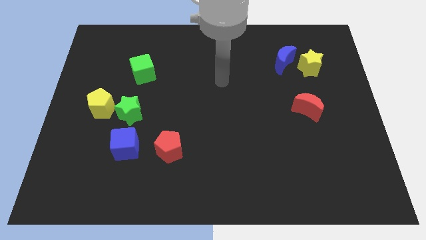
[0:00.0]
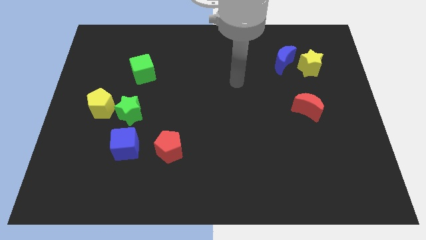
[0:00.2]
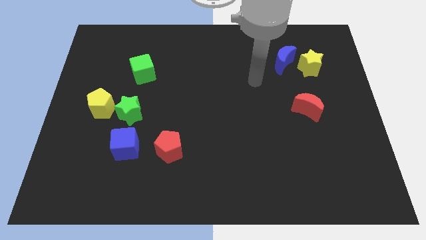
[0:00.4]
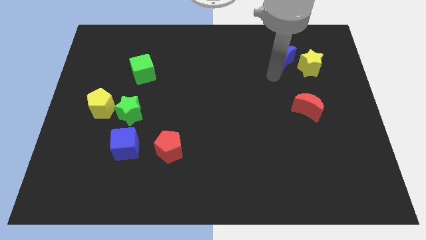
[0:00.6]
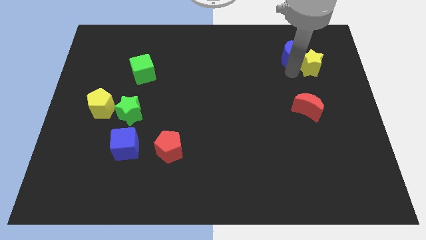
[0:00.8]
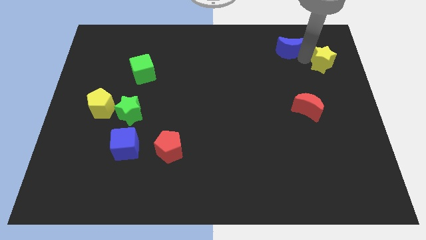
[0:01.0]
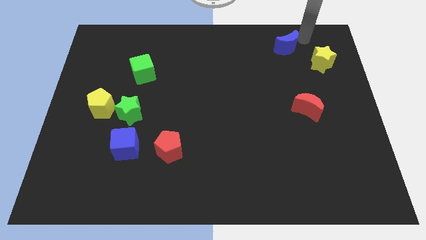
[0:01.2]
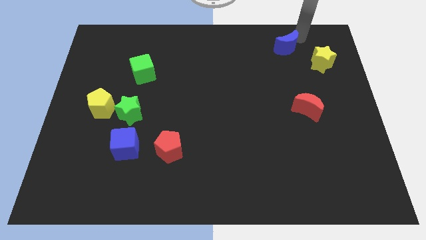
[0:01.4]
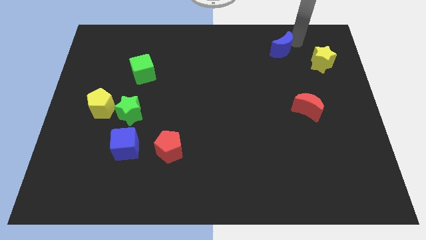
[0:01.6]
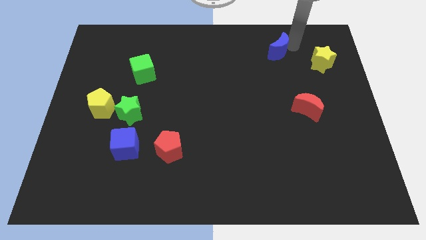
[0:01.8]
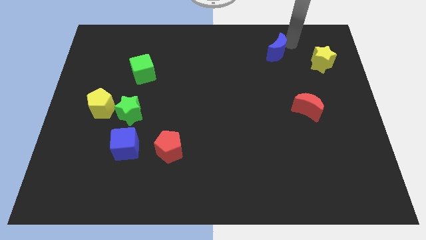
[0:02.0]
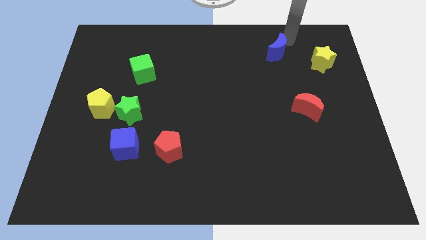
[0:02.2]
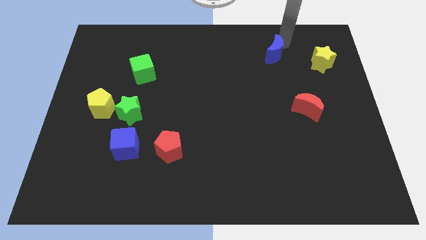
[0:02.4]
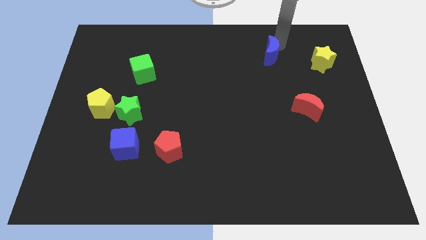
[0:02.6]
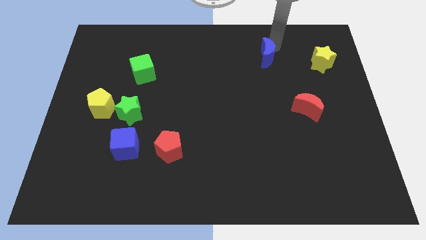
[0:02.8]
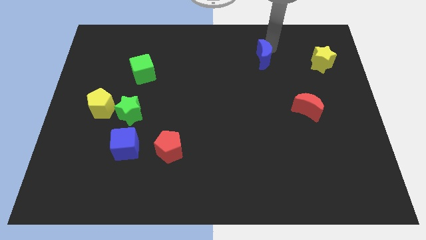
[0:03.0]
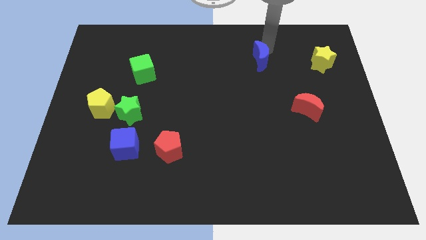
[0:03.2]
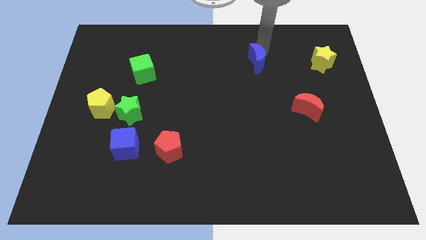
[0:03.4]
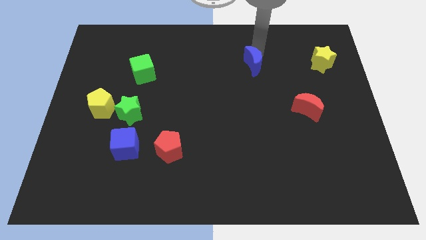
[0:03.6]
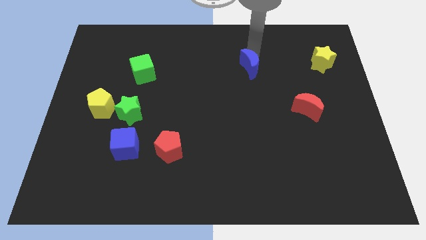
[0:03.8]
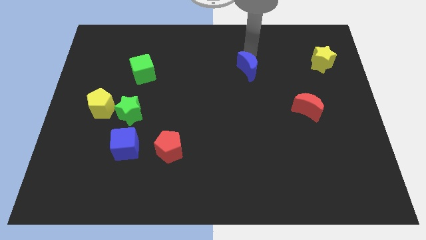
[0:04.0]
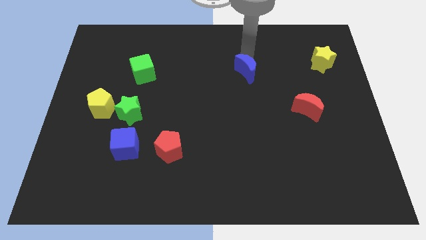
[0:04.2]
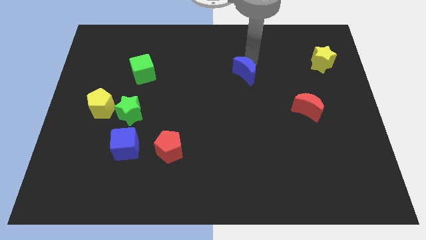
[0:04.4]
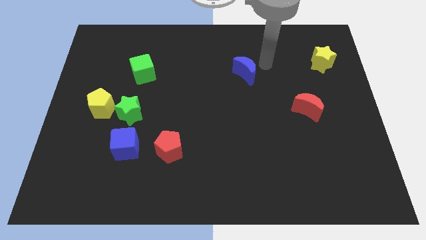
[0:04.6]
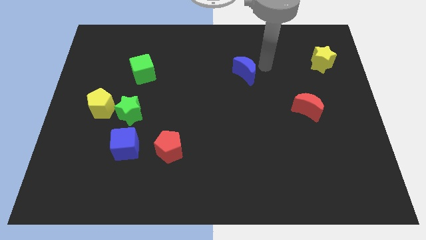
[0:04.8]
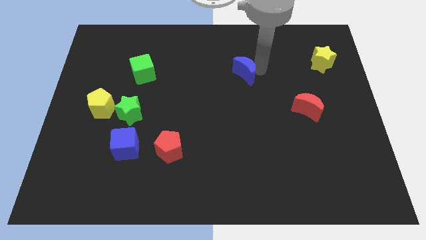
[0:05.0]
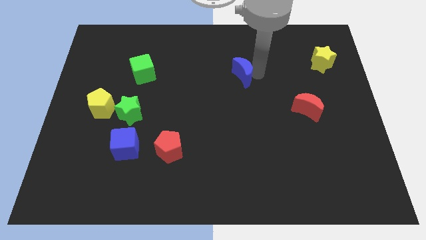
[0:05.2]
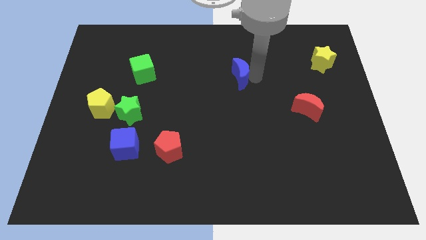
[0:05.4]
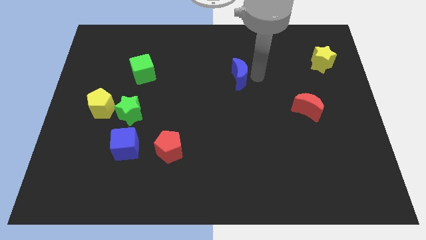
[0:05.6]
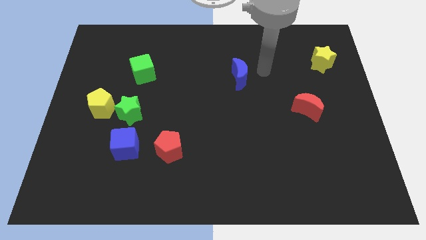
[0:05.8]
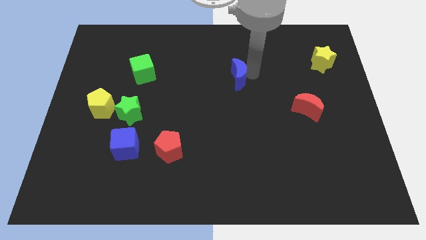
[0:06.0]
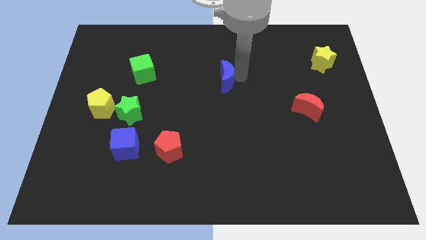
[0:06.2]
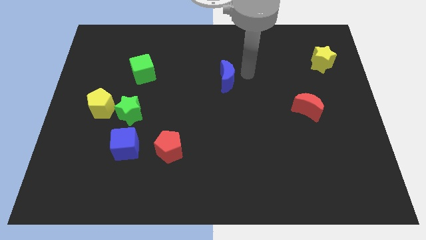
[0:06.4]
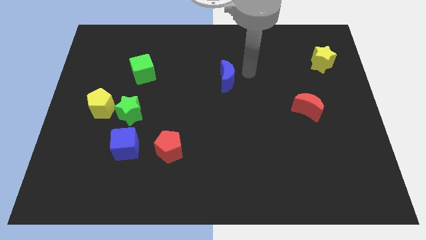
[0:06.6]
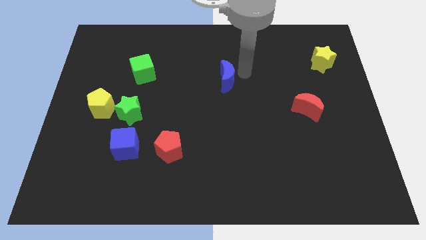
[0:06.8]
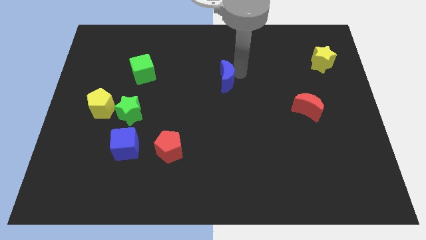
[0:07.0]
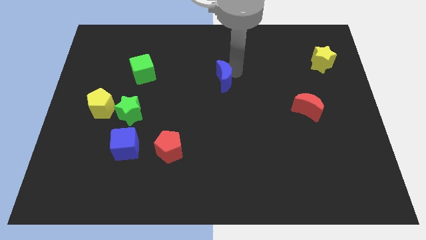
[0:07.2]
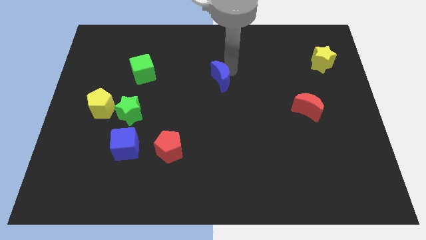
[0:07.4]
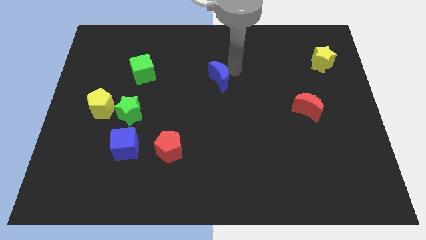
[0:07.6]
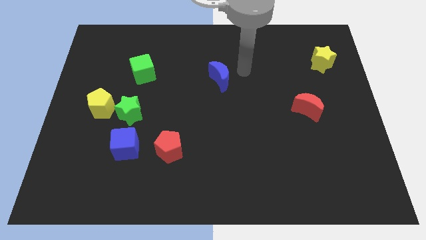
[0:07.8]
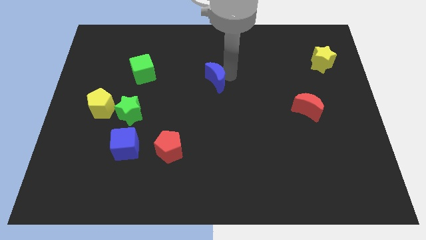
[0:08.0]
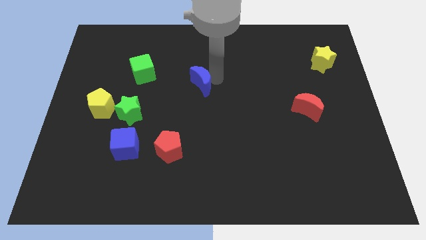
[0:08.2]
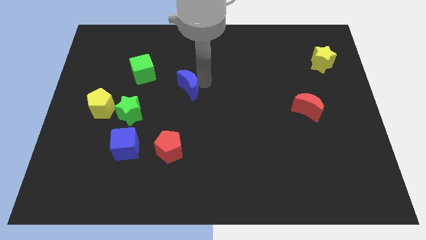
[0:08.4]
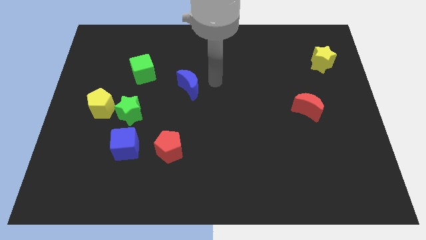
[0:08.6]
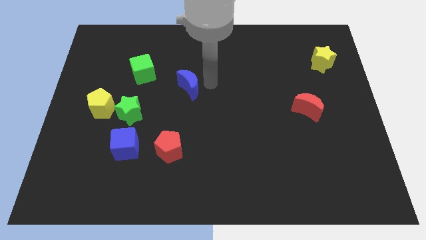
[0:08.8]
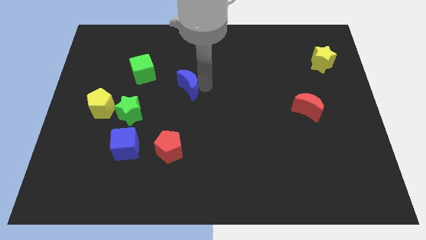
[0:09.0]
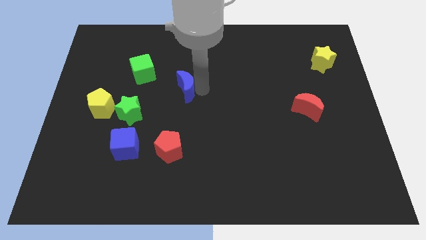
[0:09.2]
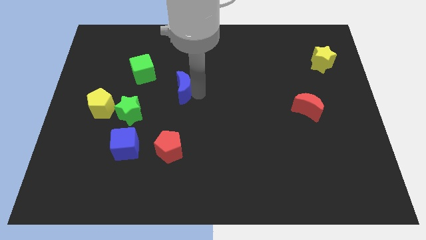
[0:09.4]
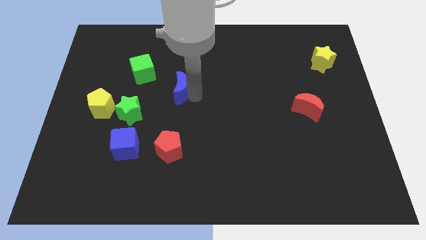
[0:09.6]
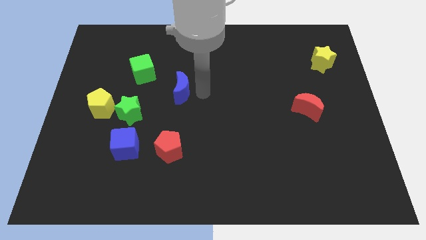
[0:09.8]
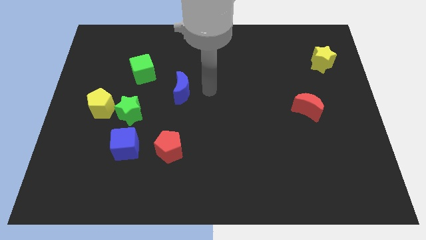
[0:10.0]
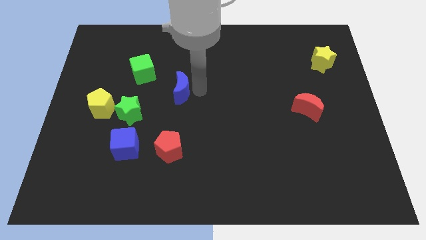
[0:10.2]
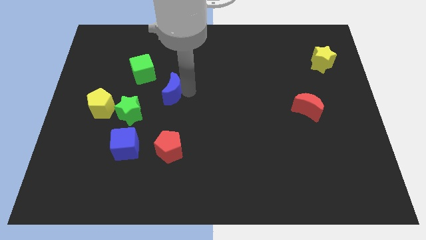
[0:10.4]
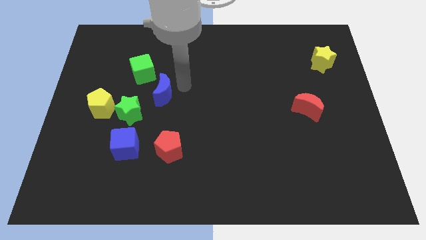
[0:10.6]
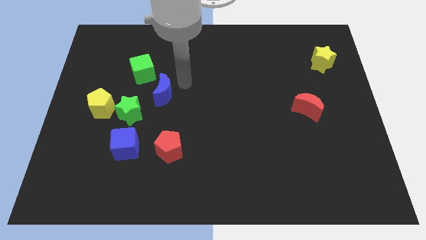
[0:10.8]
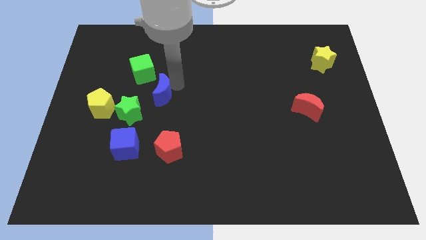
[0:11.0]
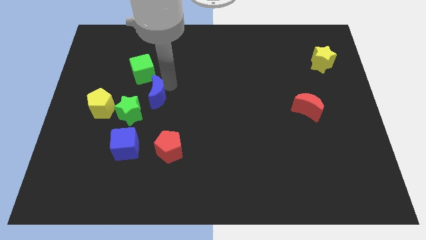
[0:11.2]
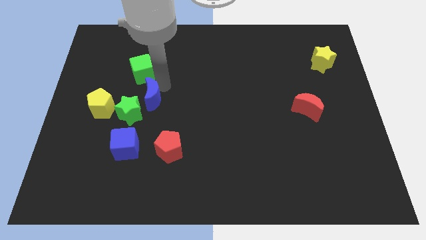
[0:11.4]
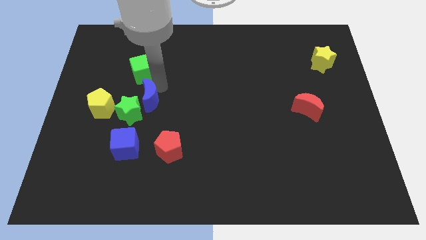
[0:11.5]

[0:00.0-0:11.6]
push the blue moon to the top of the blue cube

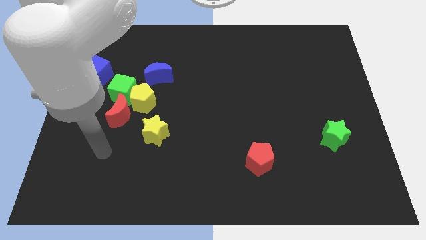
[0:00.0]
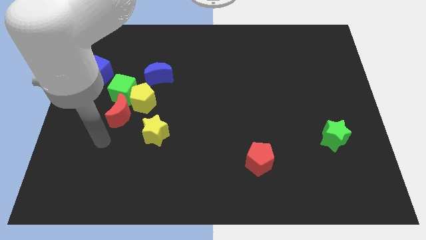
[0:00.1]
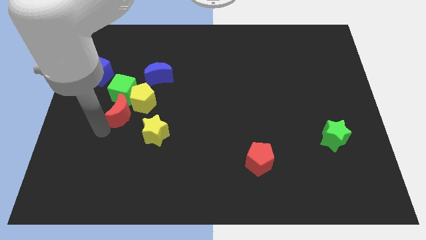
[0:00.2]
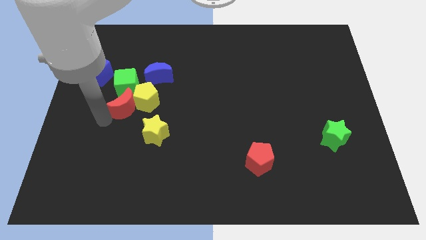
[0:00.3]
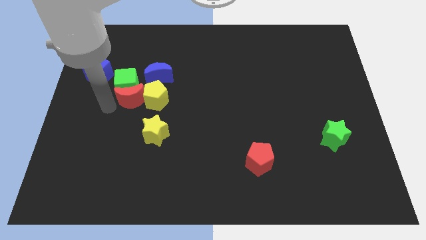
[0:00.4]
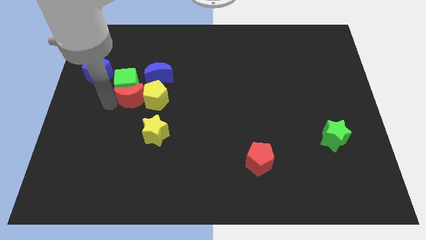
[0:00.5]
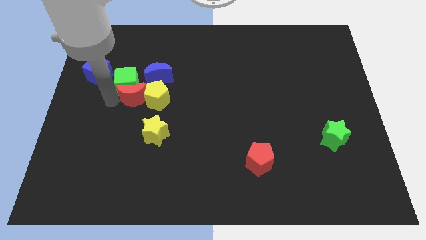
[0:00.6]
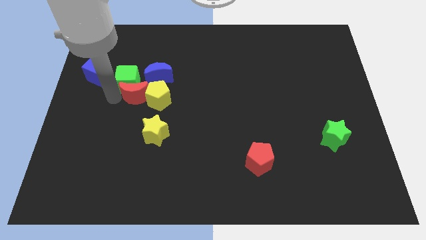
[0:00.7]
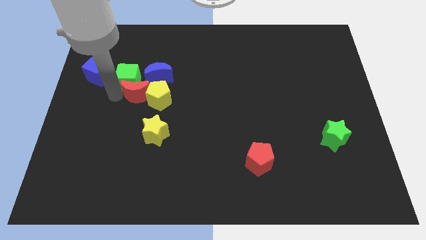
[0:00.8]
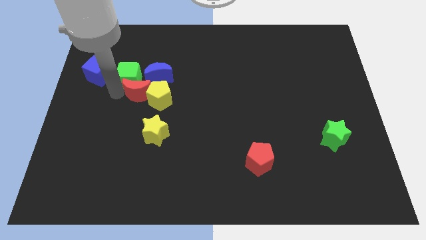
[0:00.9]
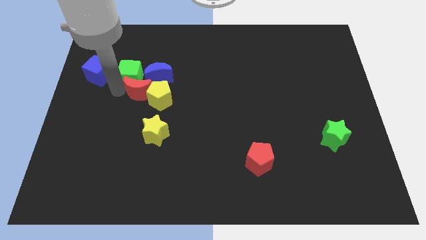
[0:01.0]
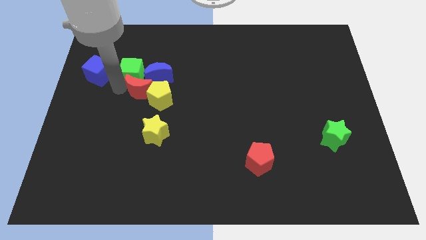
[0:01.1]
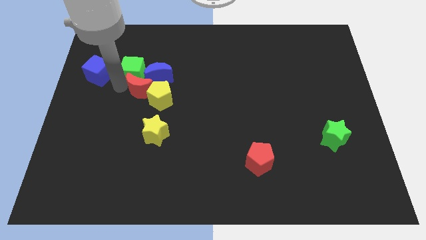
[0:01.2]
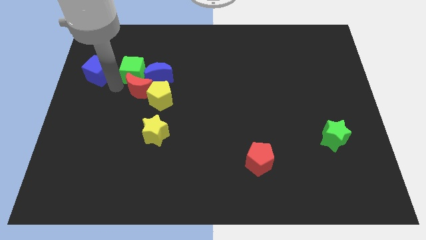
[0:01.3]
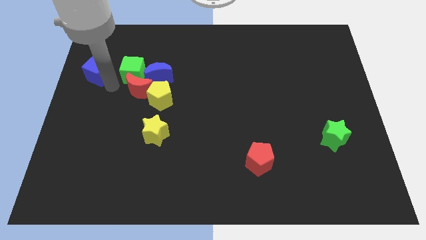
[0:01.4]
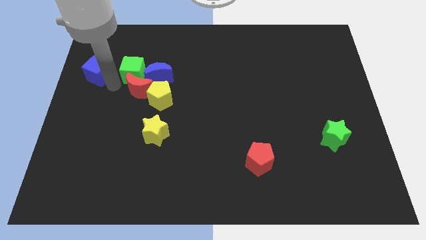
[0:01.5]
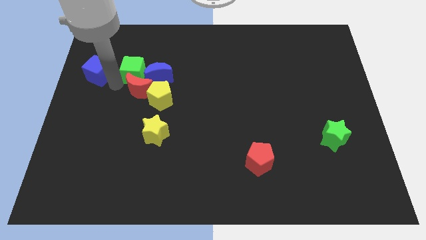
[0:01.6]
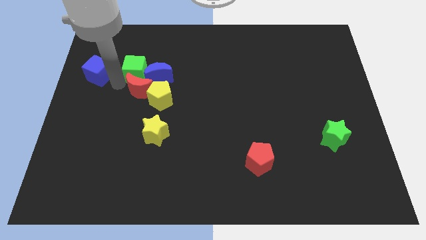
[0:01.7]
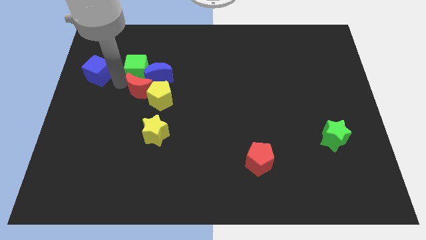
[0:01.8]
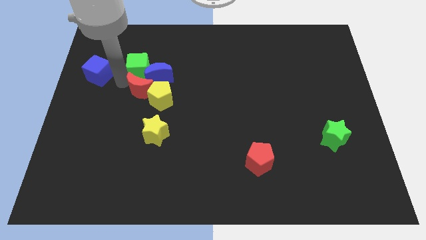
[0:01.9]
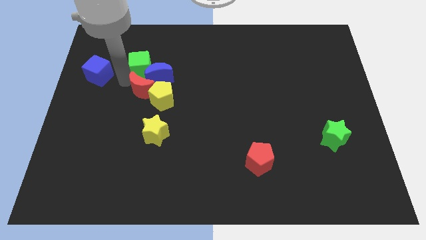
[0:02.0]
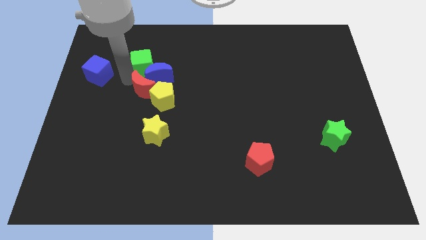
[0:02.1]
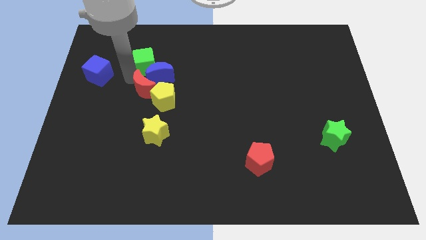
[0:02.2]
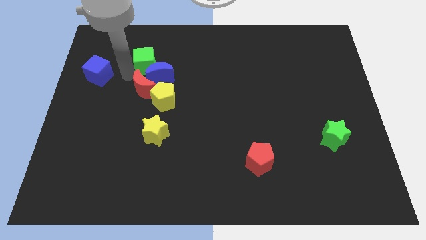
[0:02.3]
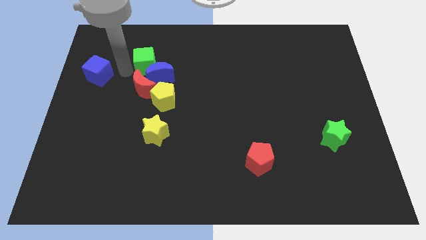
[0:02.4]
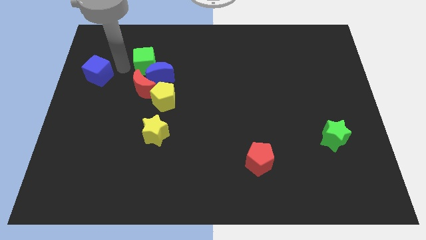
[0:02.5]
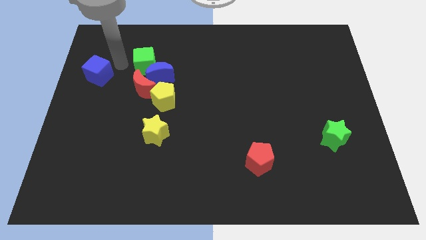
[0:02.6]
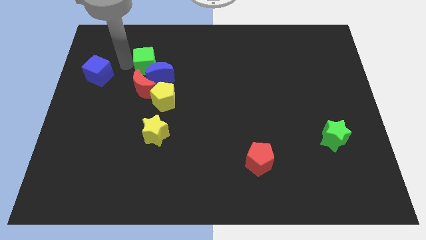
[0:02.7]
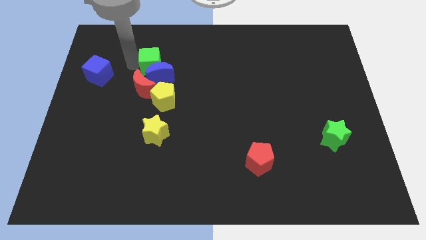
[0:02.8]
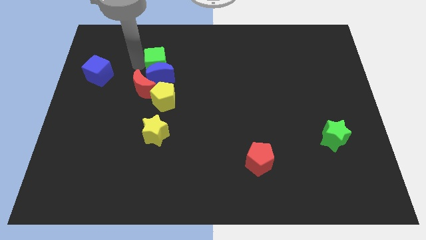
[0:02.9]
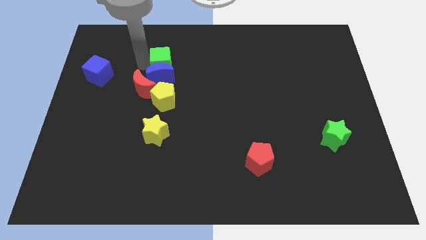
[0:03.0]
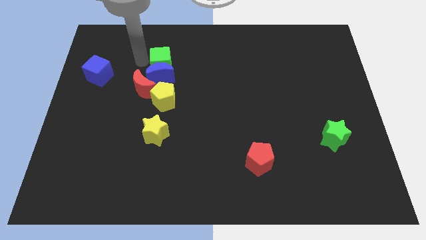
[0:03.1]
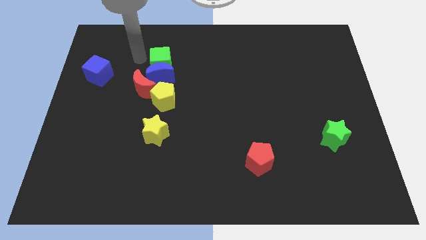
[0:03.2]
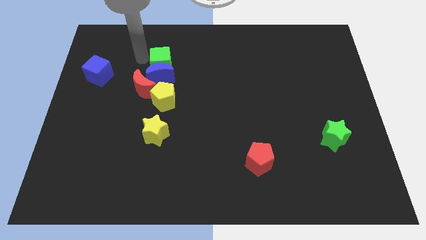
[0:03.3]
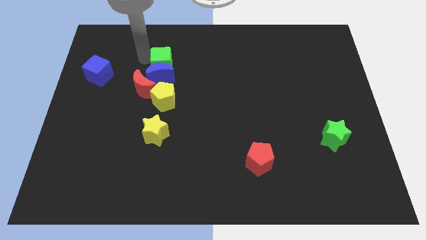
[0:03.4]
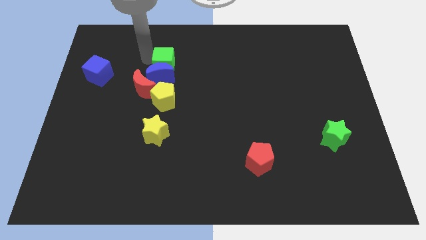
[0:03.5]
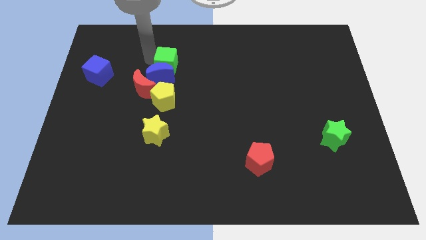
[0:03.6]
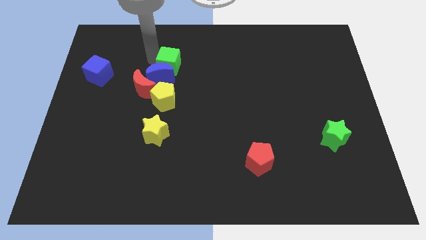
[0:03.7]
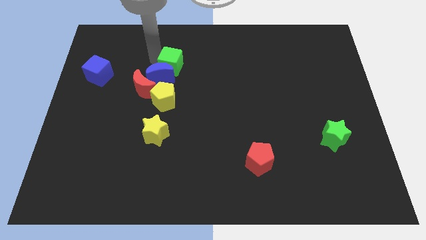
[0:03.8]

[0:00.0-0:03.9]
put the green cube to the right side of the blue moon
